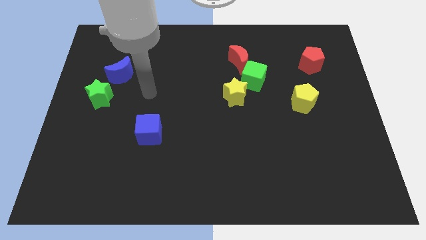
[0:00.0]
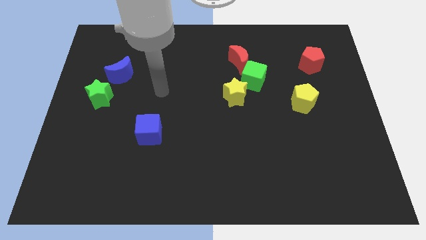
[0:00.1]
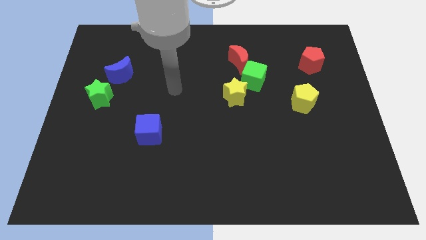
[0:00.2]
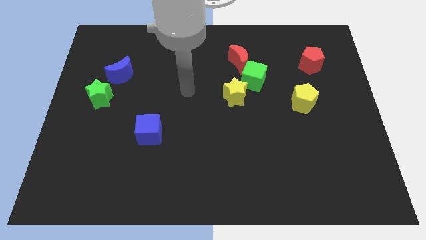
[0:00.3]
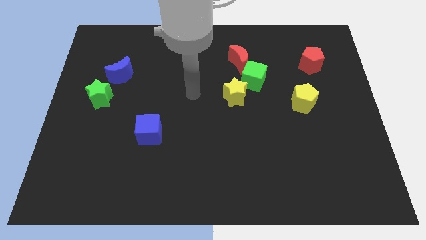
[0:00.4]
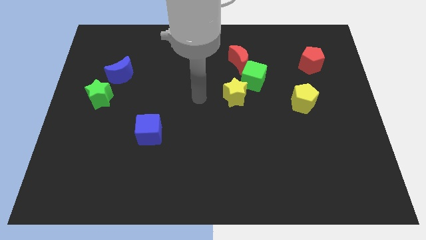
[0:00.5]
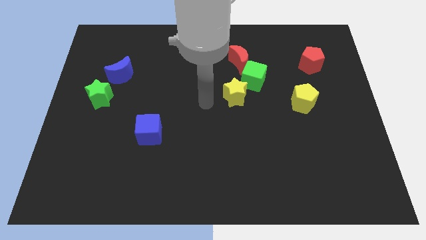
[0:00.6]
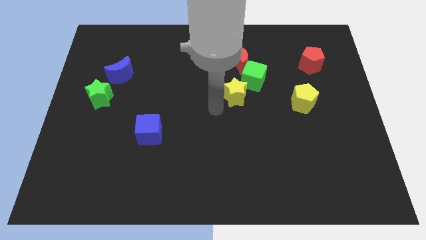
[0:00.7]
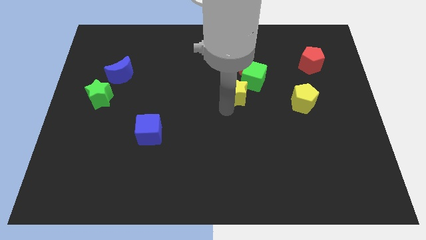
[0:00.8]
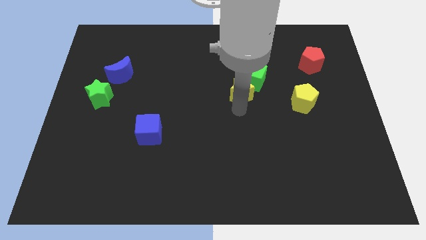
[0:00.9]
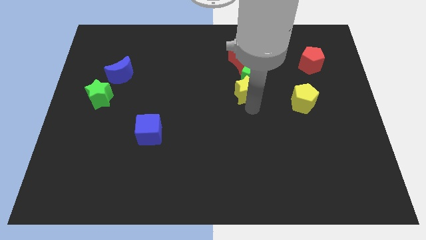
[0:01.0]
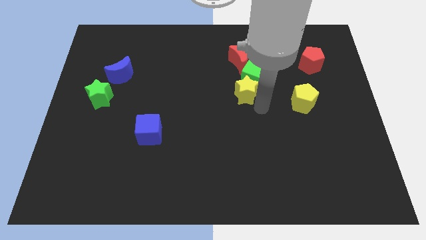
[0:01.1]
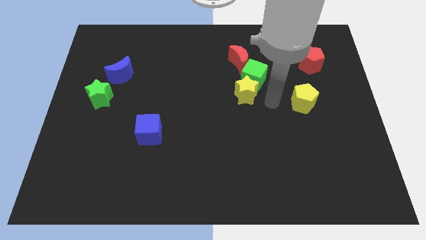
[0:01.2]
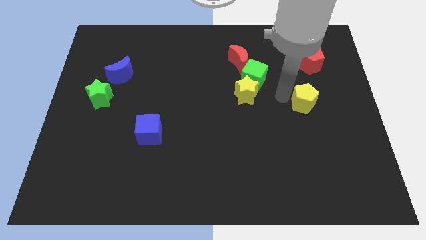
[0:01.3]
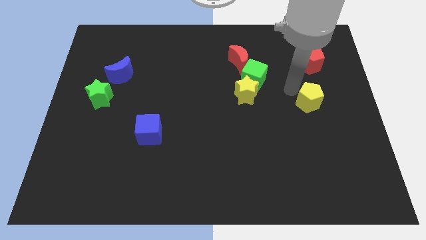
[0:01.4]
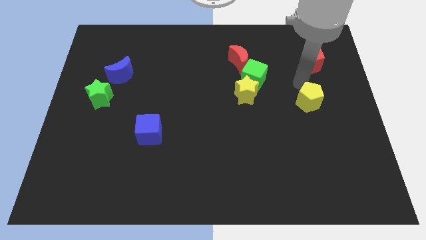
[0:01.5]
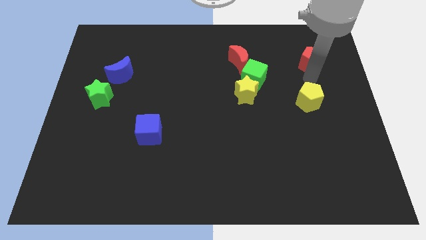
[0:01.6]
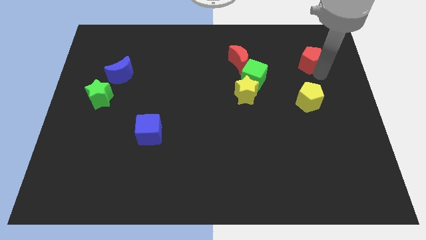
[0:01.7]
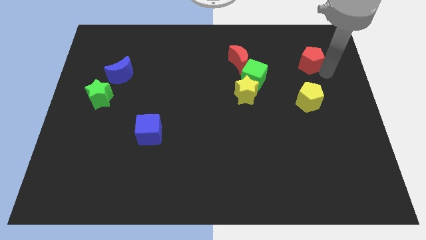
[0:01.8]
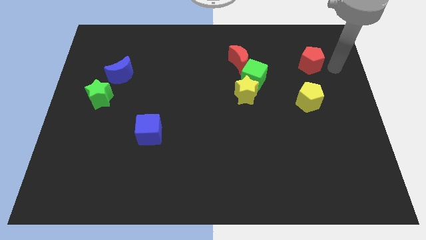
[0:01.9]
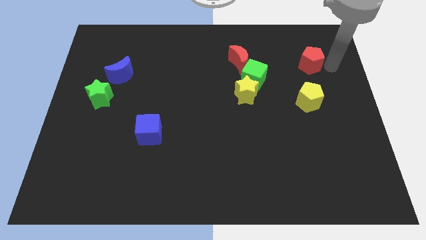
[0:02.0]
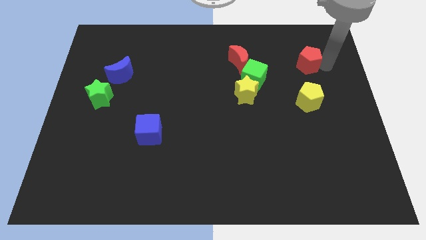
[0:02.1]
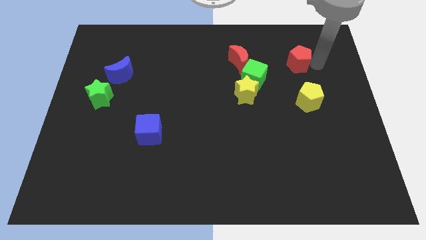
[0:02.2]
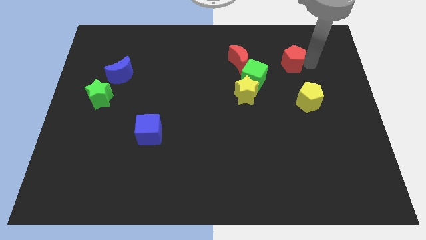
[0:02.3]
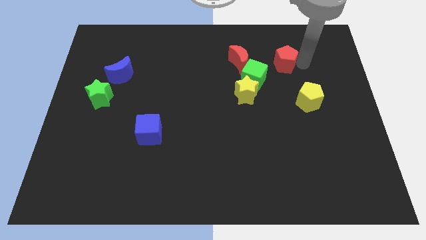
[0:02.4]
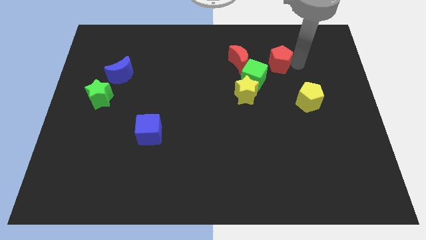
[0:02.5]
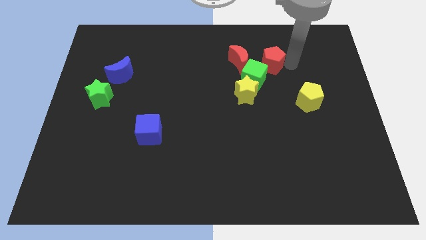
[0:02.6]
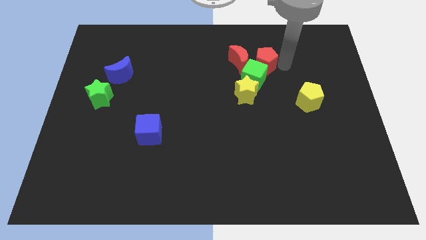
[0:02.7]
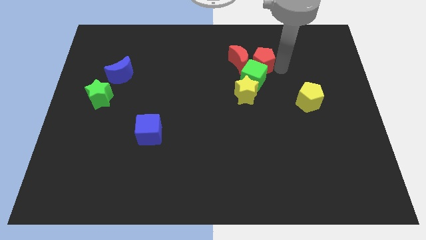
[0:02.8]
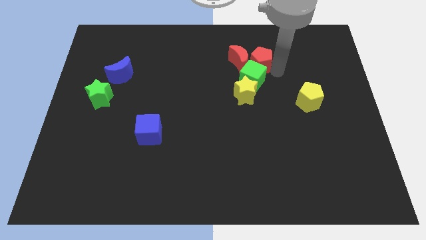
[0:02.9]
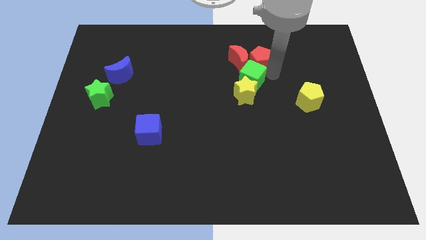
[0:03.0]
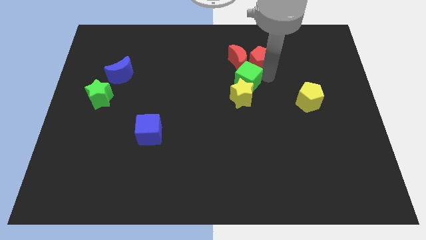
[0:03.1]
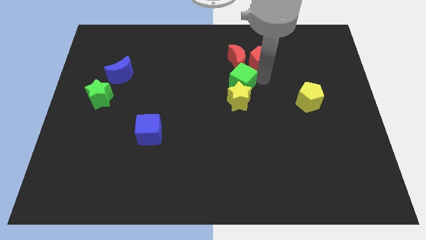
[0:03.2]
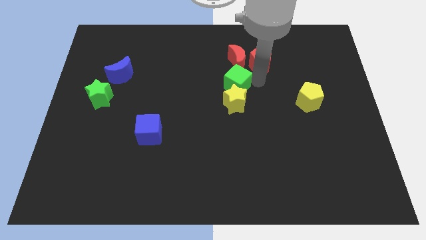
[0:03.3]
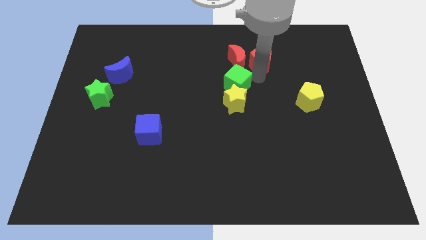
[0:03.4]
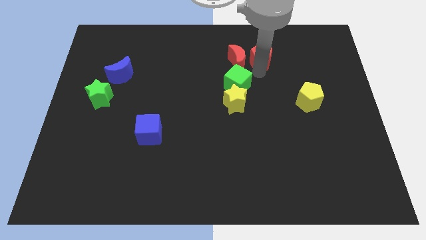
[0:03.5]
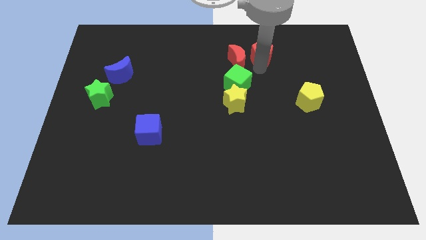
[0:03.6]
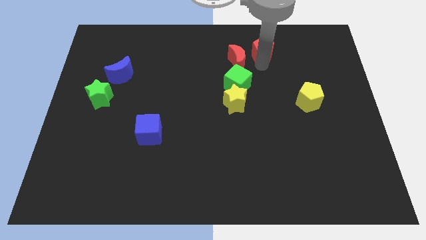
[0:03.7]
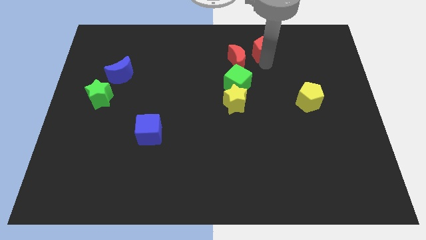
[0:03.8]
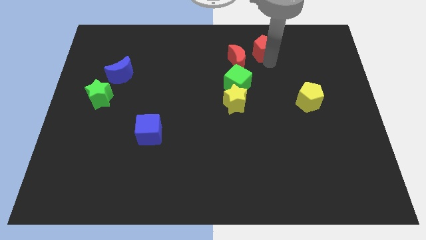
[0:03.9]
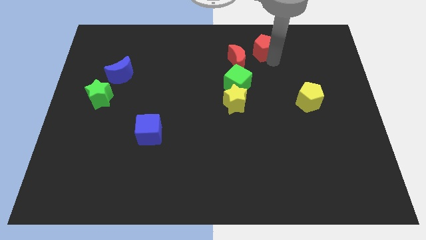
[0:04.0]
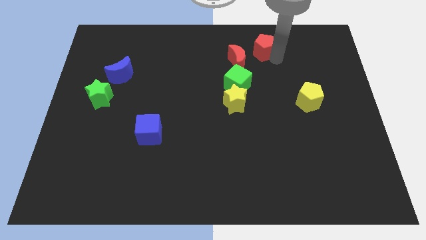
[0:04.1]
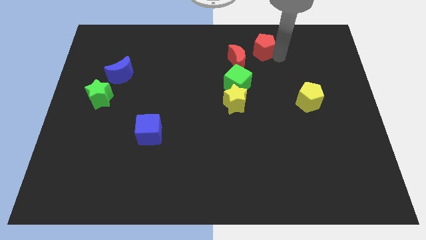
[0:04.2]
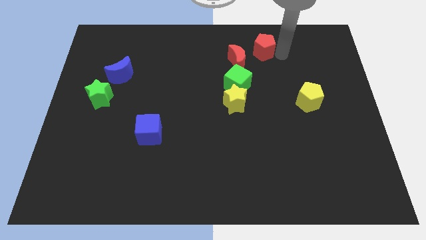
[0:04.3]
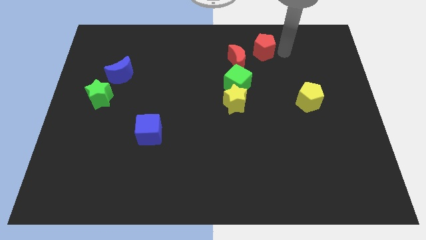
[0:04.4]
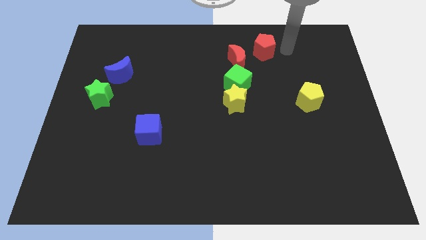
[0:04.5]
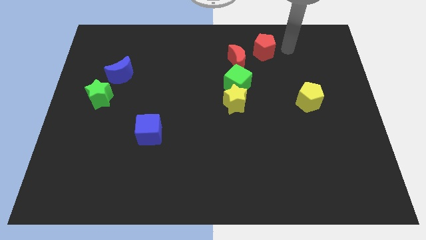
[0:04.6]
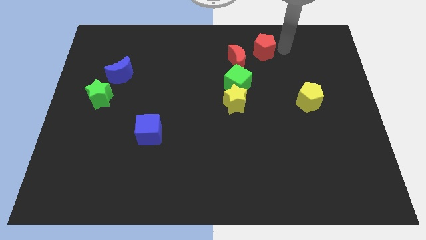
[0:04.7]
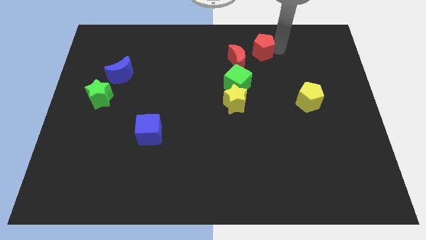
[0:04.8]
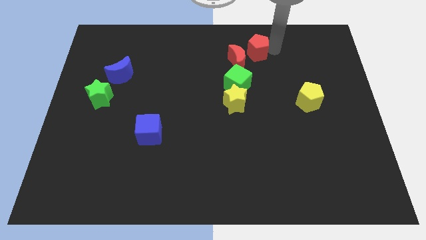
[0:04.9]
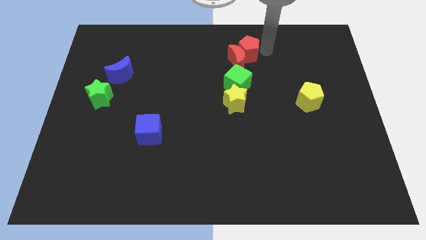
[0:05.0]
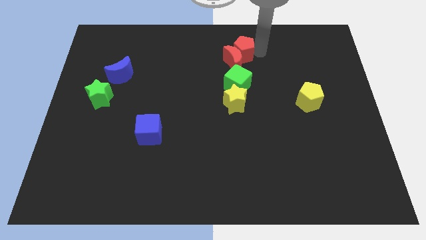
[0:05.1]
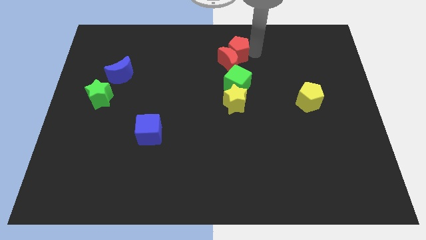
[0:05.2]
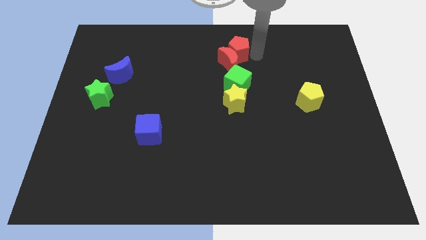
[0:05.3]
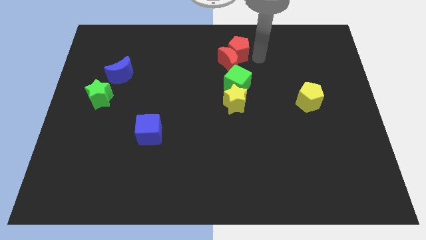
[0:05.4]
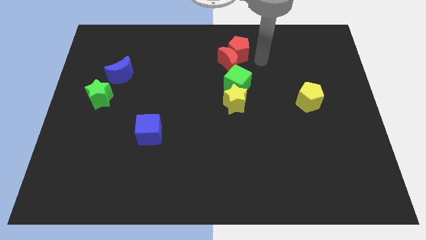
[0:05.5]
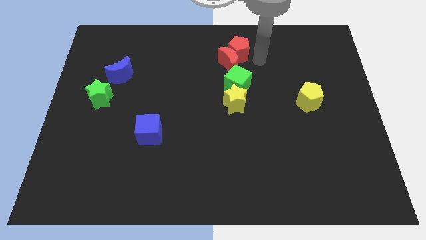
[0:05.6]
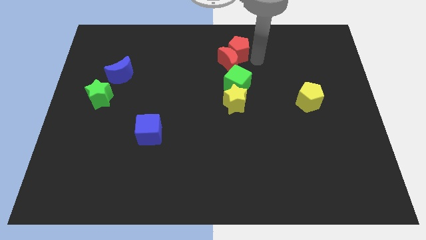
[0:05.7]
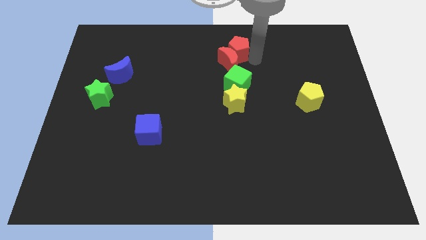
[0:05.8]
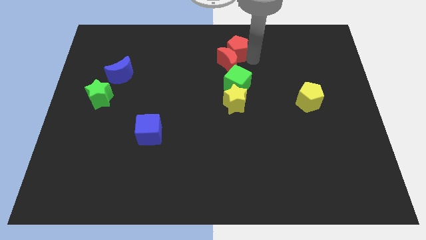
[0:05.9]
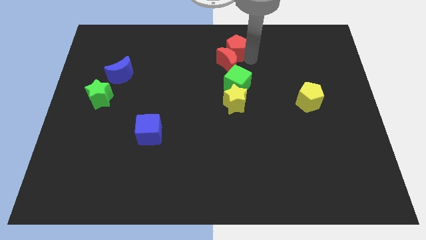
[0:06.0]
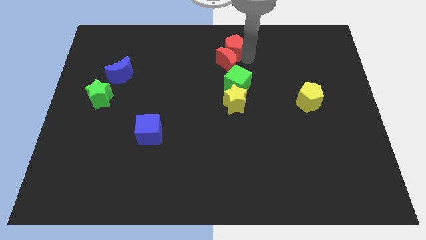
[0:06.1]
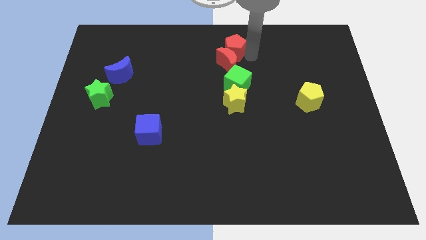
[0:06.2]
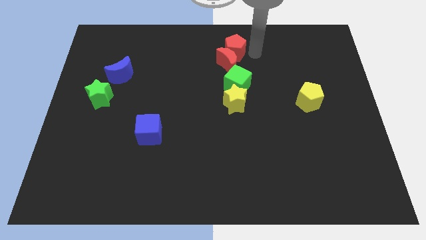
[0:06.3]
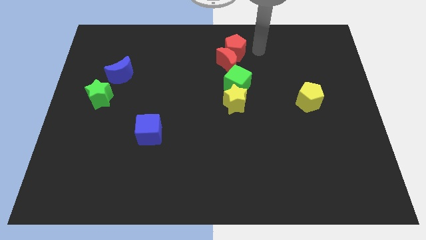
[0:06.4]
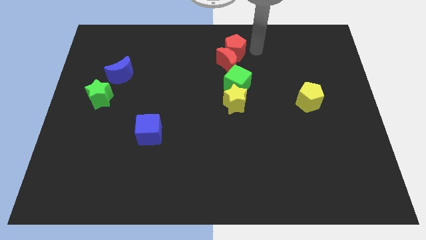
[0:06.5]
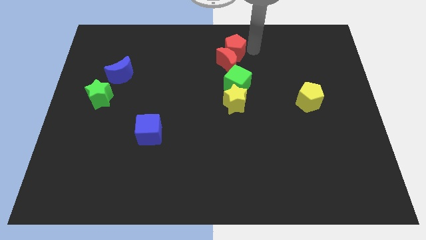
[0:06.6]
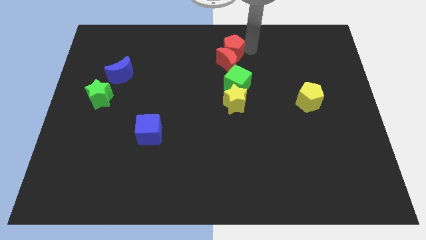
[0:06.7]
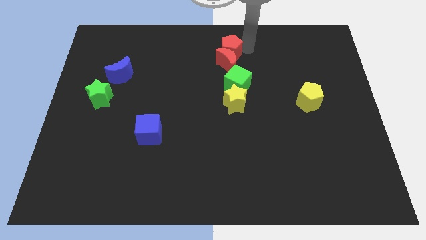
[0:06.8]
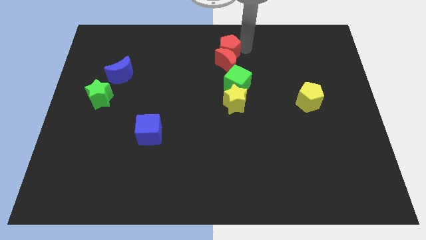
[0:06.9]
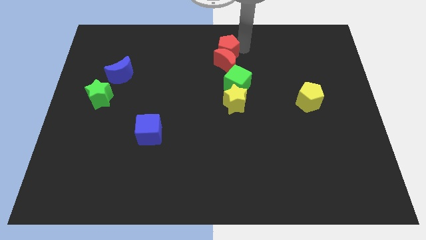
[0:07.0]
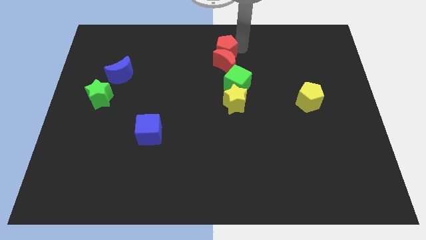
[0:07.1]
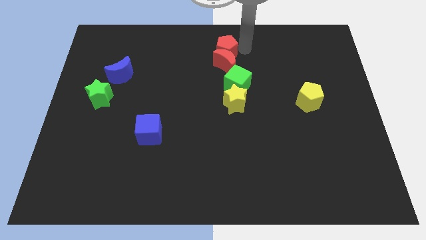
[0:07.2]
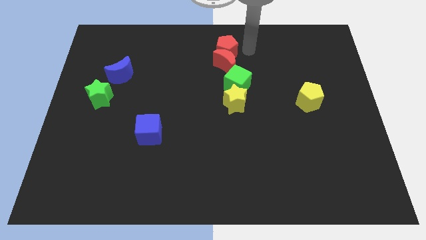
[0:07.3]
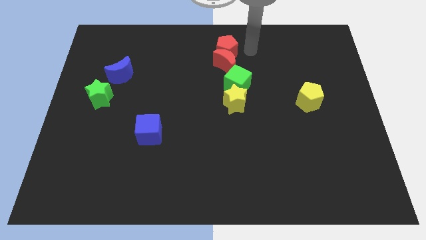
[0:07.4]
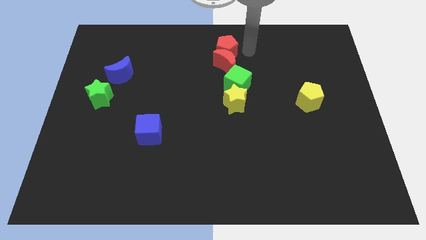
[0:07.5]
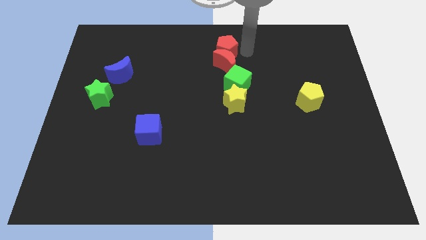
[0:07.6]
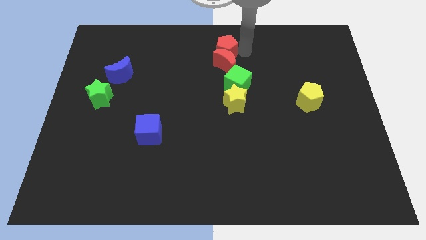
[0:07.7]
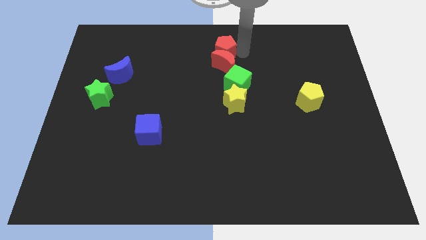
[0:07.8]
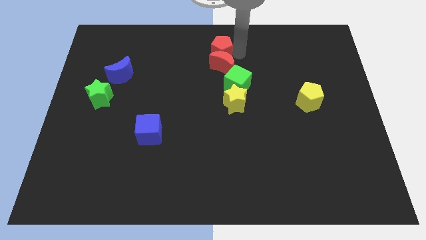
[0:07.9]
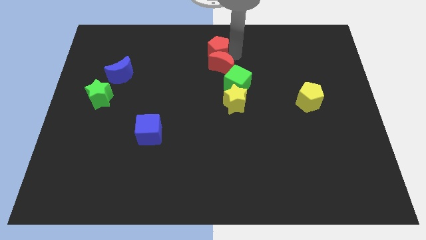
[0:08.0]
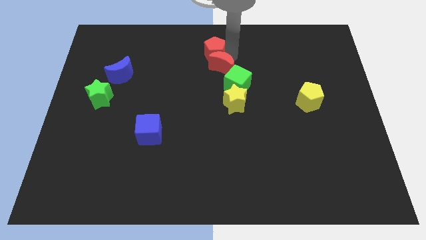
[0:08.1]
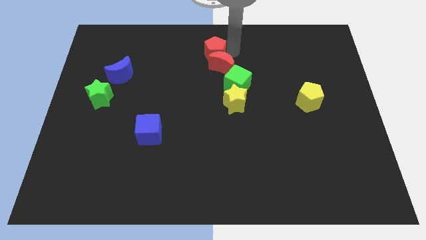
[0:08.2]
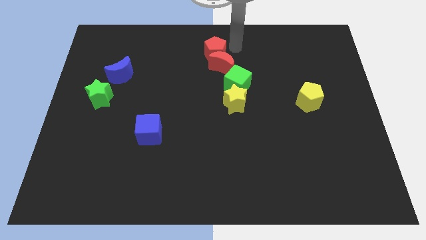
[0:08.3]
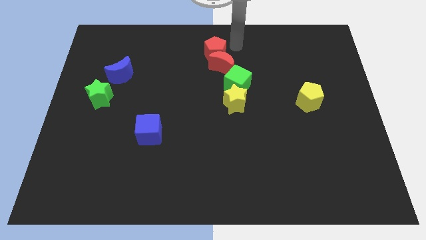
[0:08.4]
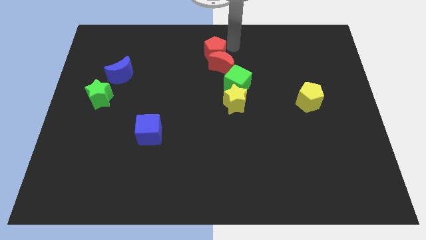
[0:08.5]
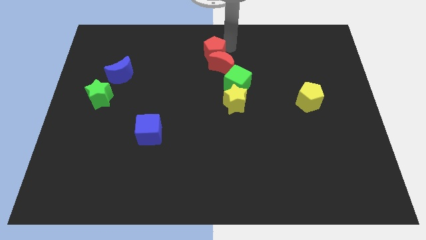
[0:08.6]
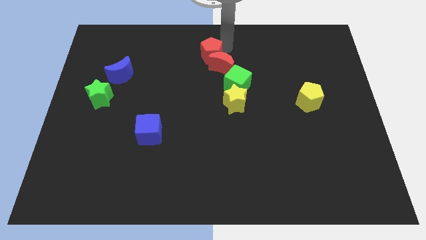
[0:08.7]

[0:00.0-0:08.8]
put the red pentagon to the left side of the red moon
